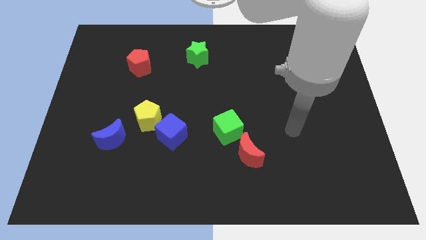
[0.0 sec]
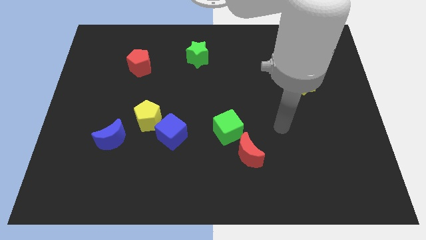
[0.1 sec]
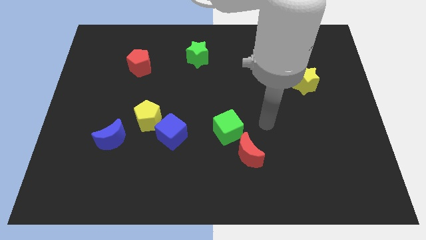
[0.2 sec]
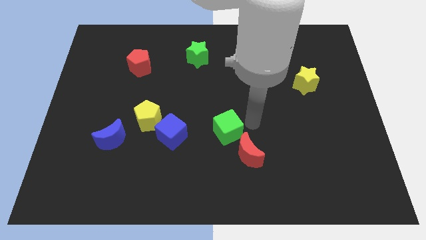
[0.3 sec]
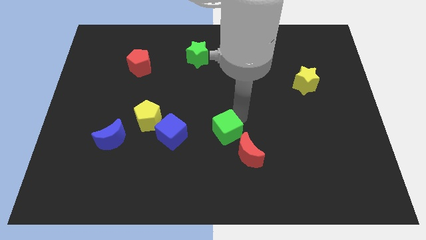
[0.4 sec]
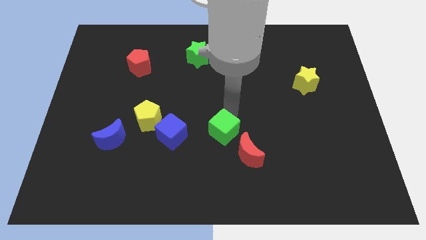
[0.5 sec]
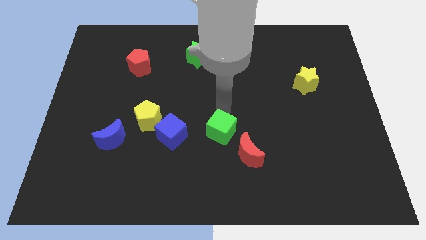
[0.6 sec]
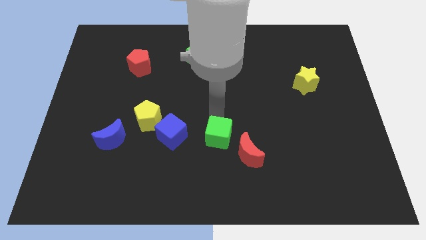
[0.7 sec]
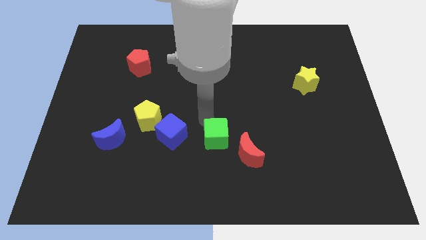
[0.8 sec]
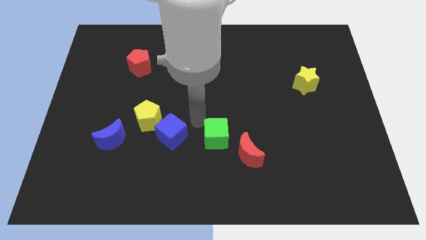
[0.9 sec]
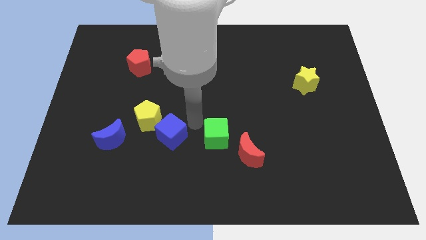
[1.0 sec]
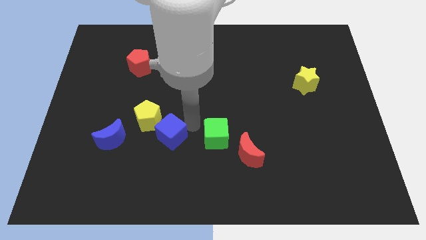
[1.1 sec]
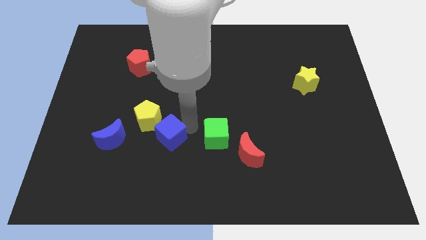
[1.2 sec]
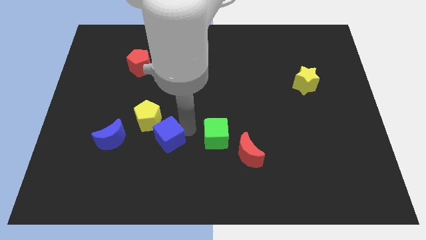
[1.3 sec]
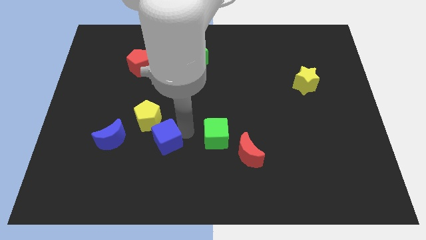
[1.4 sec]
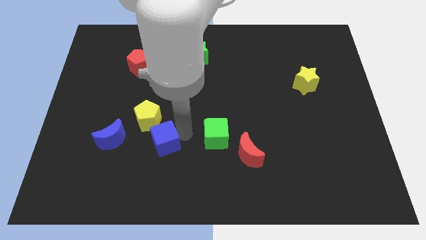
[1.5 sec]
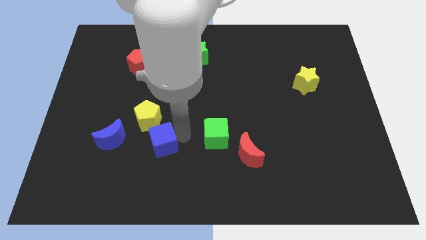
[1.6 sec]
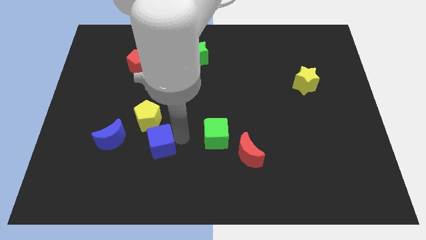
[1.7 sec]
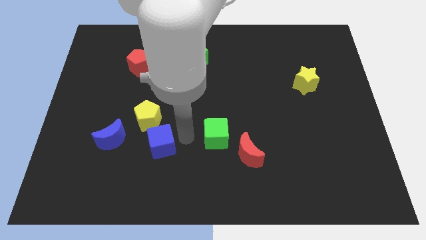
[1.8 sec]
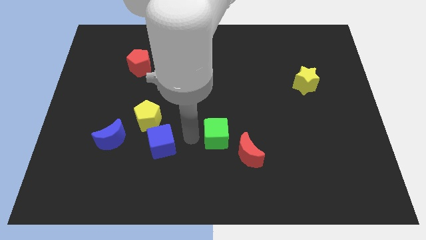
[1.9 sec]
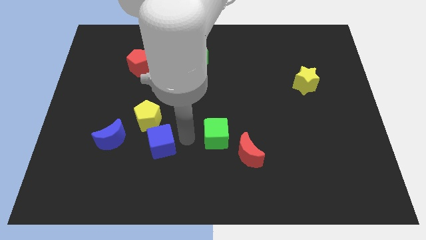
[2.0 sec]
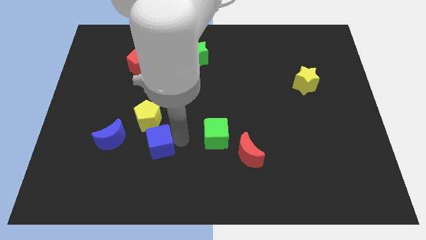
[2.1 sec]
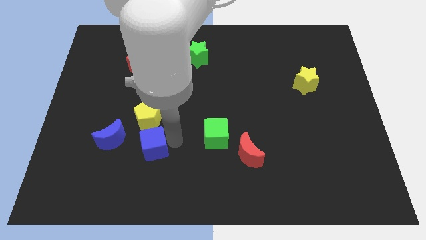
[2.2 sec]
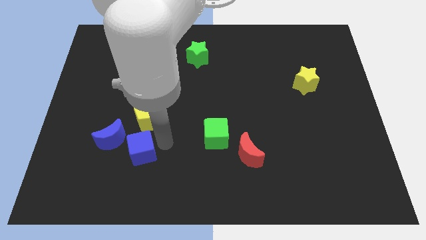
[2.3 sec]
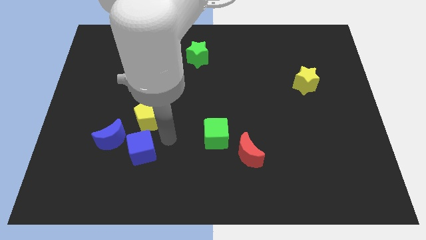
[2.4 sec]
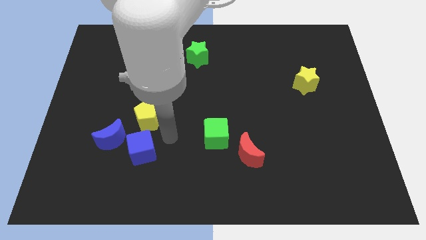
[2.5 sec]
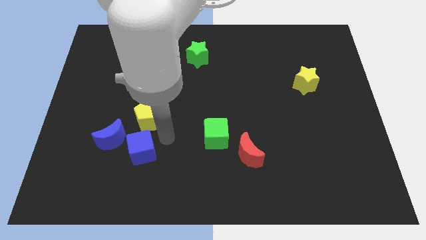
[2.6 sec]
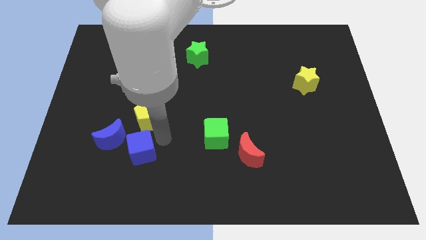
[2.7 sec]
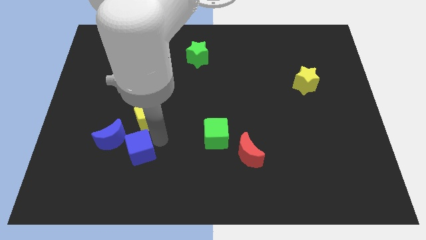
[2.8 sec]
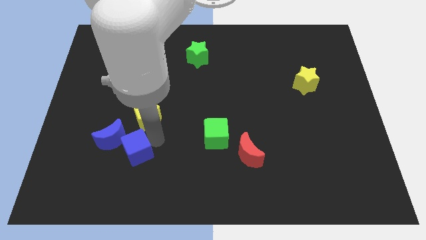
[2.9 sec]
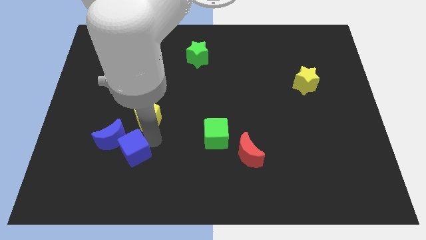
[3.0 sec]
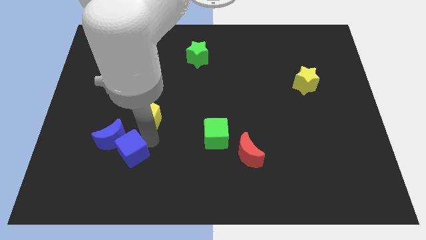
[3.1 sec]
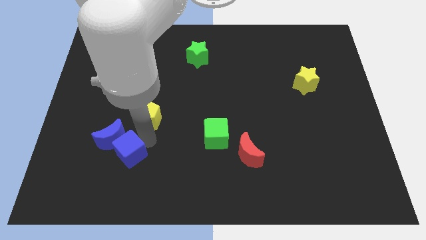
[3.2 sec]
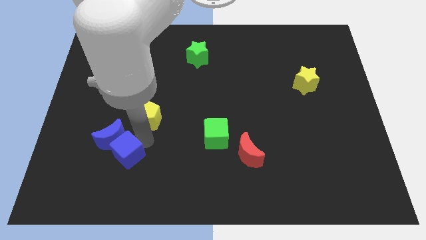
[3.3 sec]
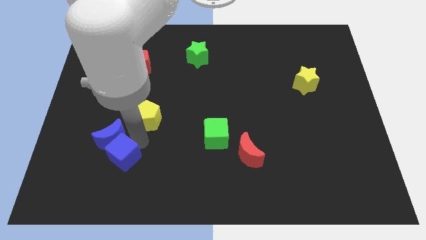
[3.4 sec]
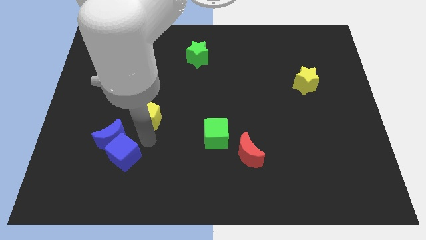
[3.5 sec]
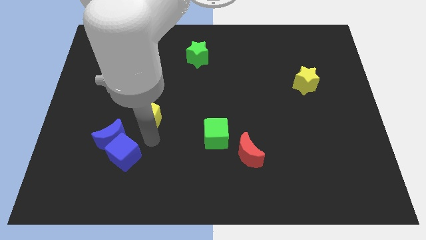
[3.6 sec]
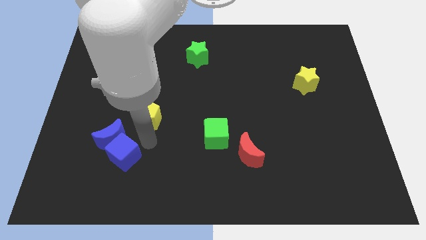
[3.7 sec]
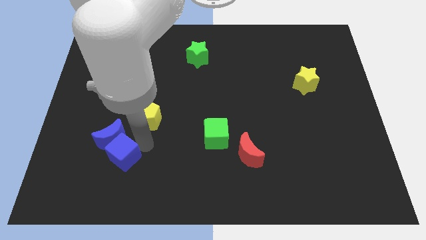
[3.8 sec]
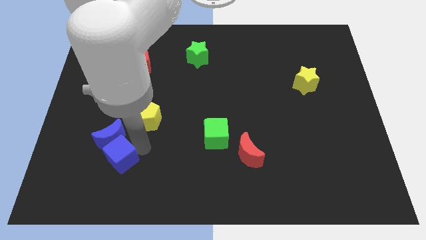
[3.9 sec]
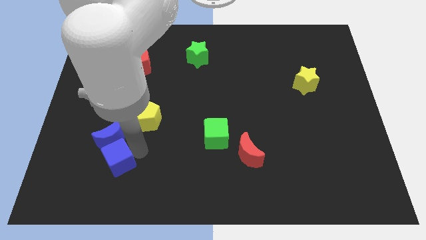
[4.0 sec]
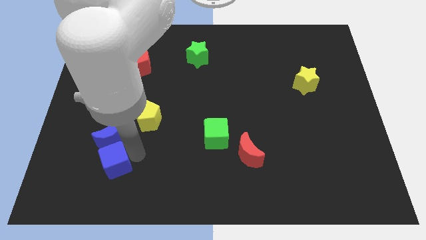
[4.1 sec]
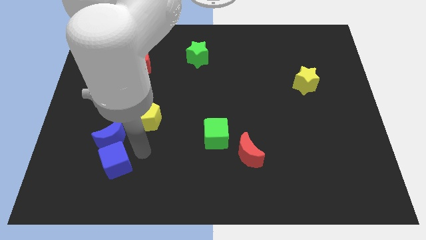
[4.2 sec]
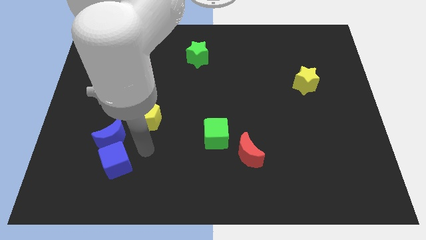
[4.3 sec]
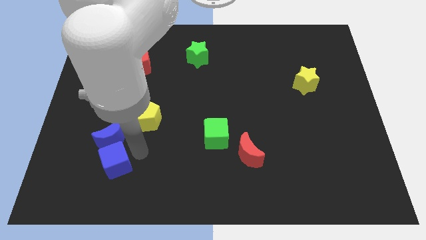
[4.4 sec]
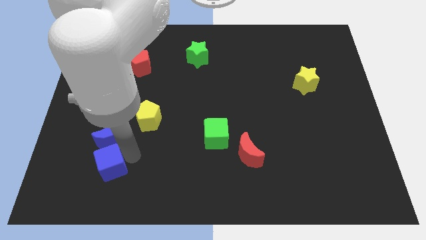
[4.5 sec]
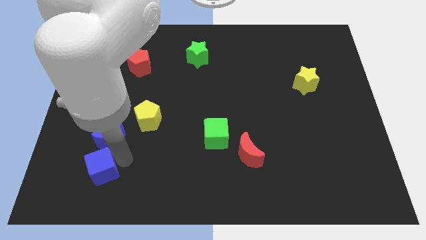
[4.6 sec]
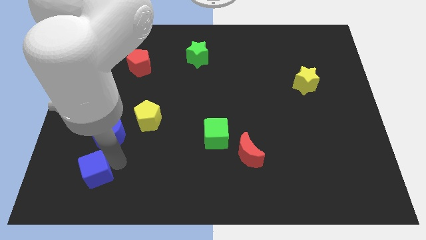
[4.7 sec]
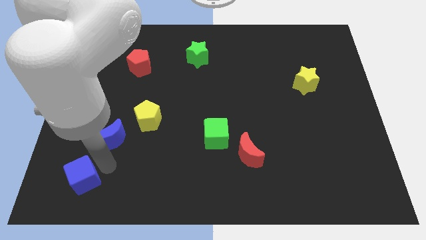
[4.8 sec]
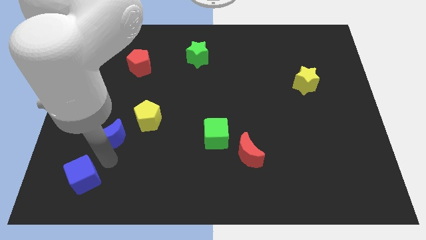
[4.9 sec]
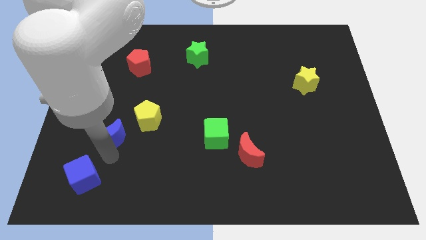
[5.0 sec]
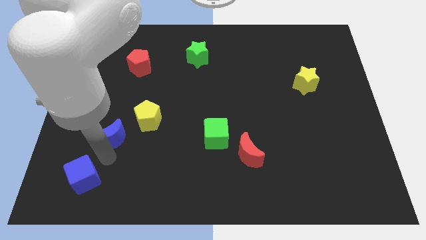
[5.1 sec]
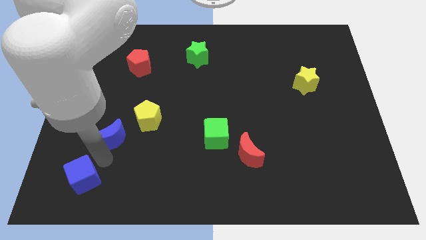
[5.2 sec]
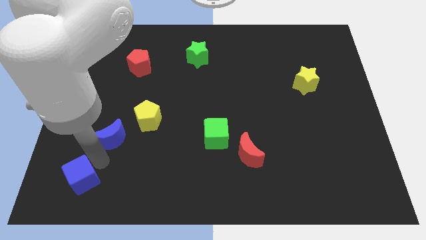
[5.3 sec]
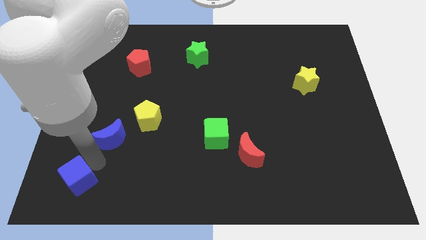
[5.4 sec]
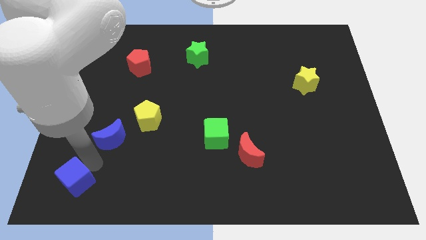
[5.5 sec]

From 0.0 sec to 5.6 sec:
push the blue cube to the lower left corner
